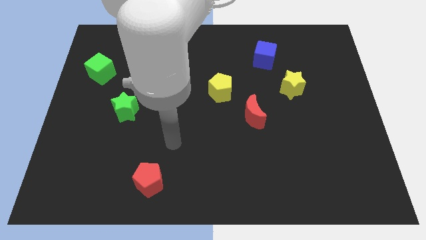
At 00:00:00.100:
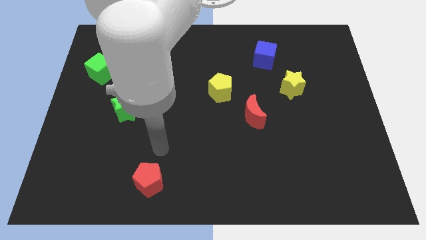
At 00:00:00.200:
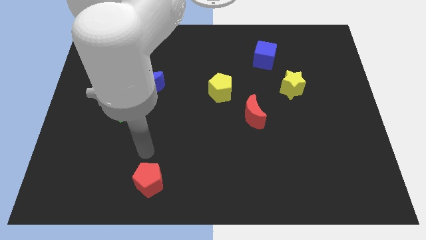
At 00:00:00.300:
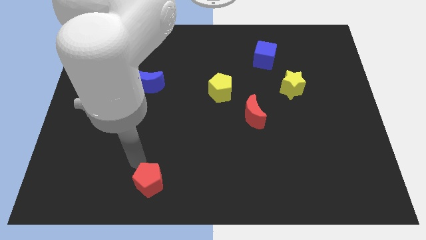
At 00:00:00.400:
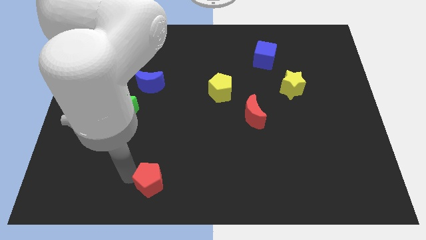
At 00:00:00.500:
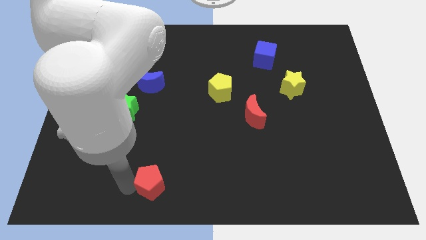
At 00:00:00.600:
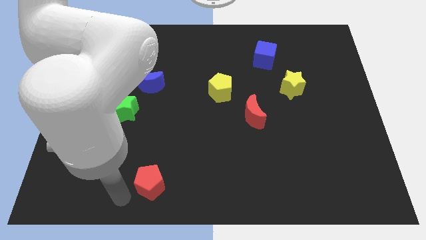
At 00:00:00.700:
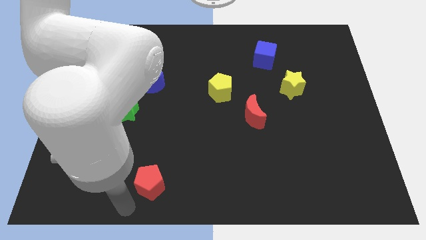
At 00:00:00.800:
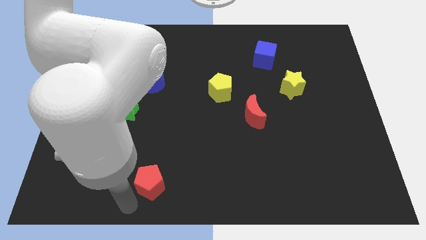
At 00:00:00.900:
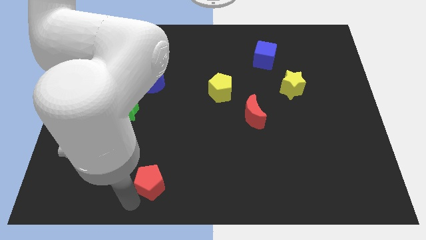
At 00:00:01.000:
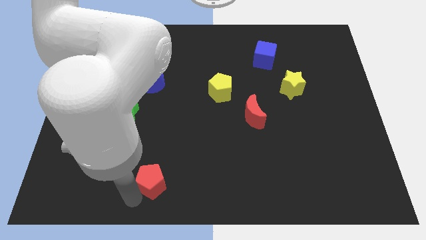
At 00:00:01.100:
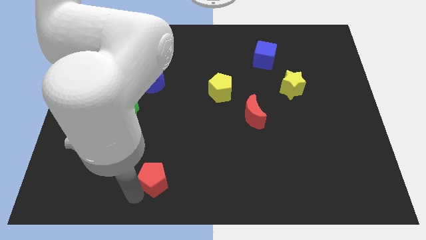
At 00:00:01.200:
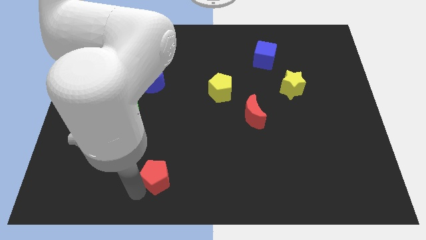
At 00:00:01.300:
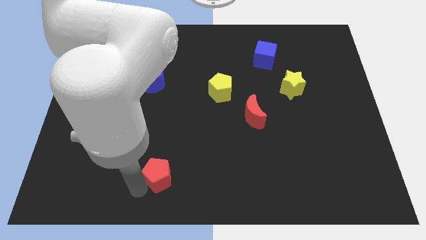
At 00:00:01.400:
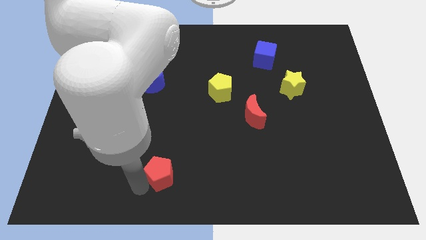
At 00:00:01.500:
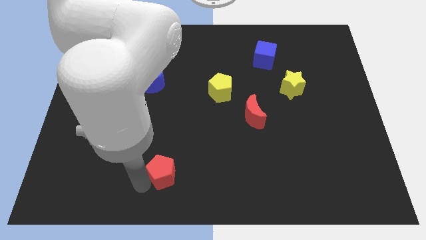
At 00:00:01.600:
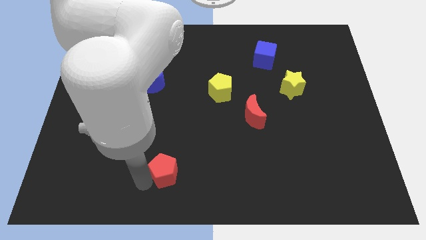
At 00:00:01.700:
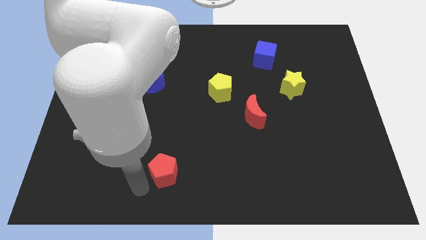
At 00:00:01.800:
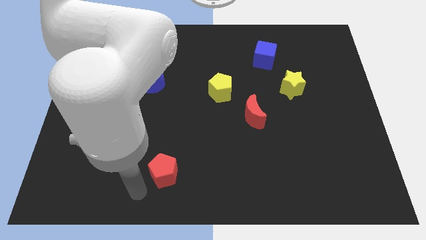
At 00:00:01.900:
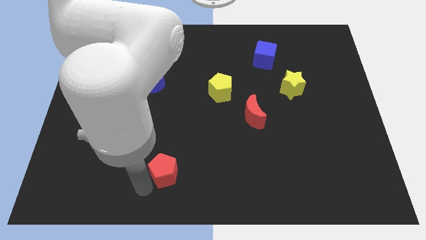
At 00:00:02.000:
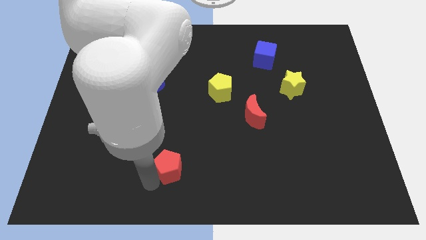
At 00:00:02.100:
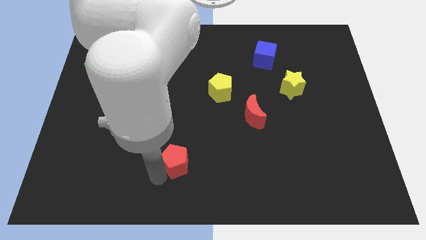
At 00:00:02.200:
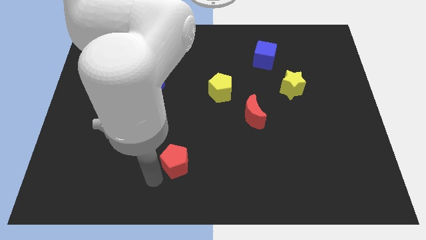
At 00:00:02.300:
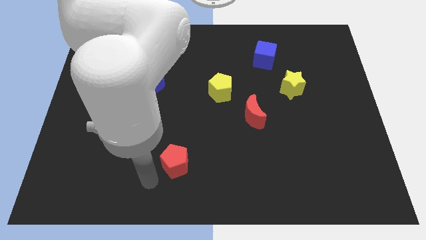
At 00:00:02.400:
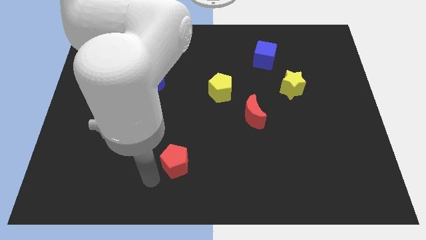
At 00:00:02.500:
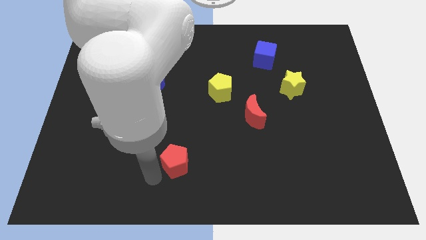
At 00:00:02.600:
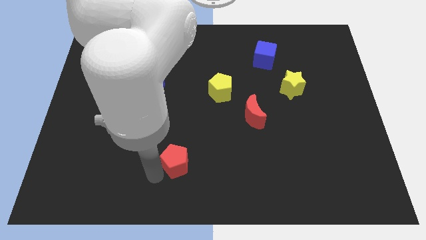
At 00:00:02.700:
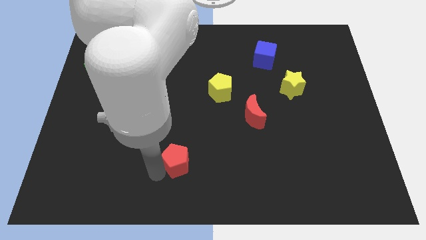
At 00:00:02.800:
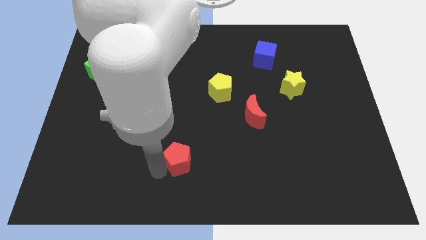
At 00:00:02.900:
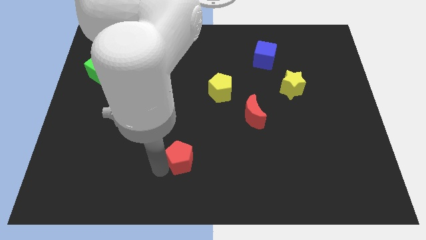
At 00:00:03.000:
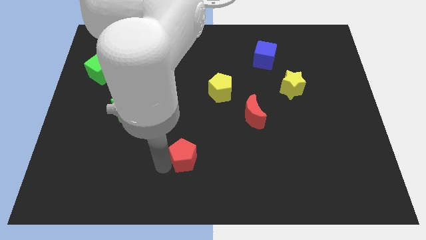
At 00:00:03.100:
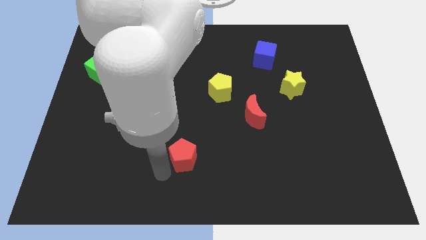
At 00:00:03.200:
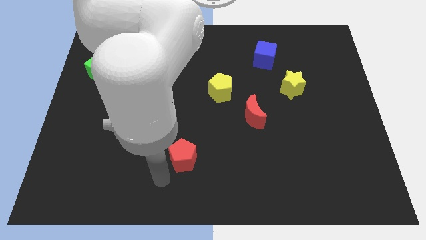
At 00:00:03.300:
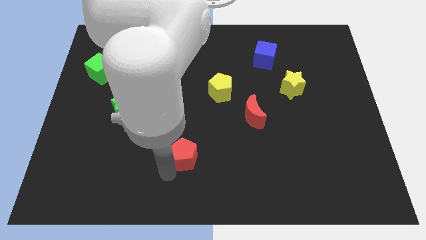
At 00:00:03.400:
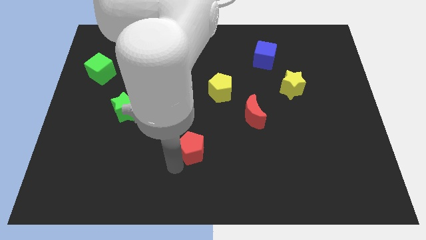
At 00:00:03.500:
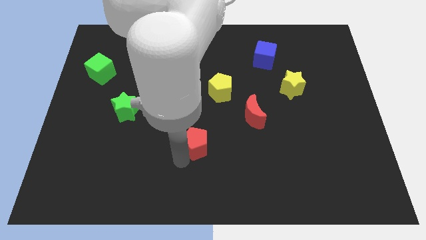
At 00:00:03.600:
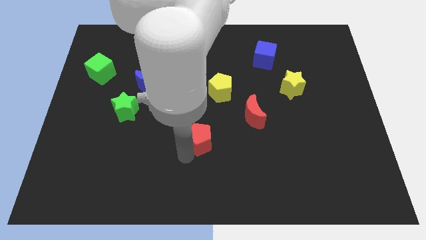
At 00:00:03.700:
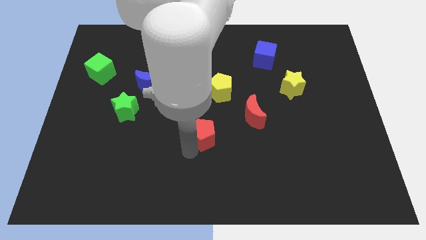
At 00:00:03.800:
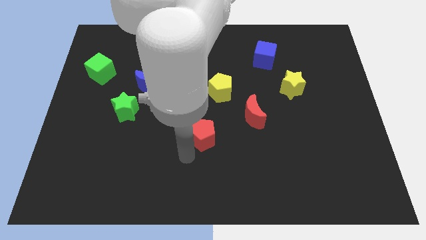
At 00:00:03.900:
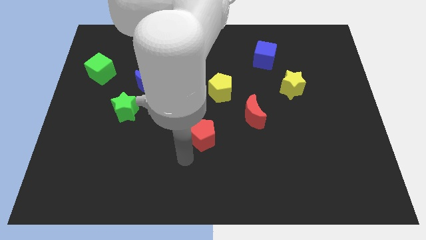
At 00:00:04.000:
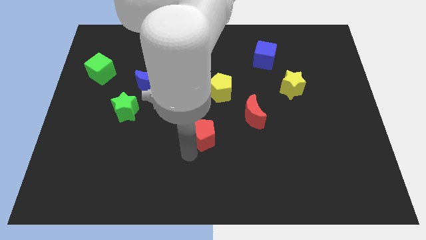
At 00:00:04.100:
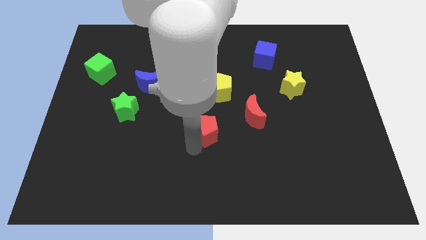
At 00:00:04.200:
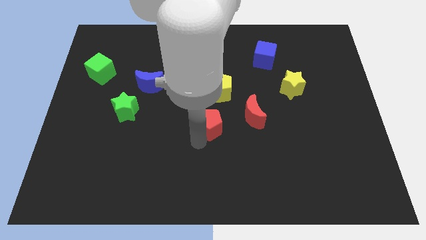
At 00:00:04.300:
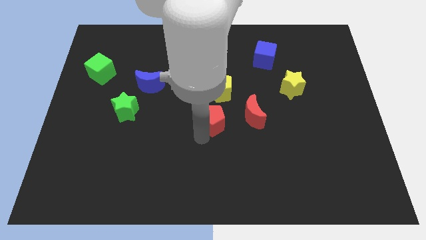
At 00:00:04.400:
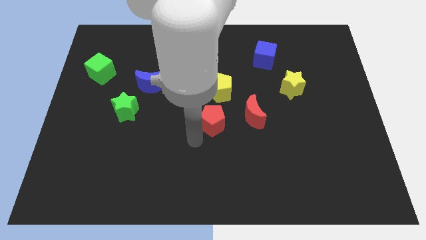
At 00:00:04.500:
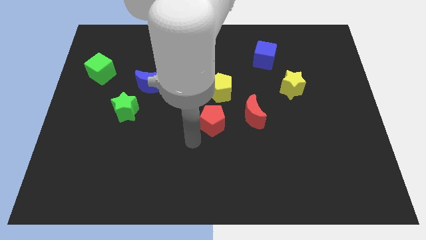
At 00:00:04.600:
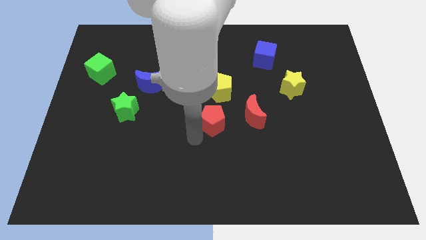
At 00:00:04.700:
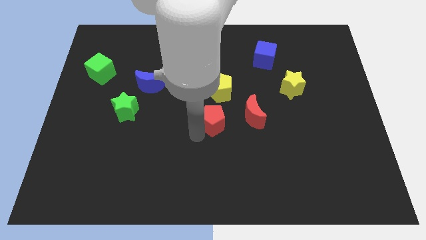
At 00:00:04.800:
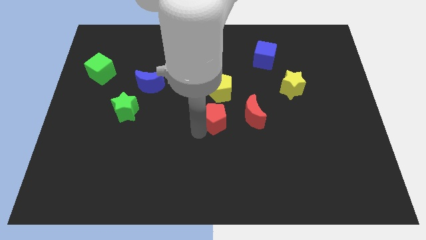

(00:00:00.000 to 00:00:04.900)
slide the red pentagon upwards and to the right

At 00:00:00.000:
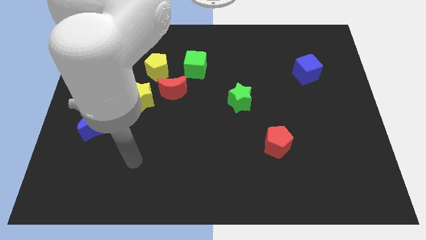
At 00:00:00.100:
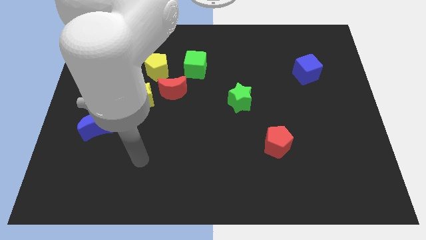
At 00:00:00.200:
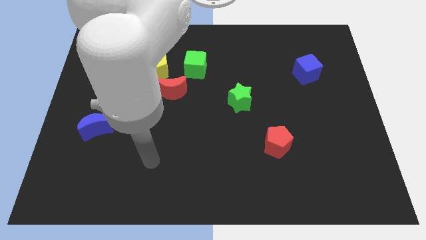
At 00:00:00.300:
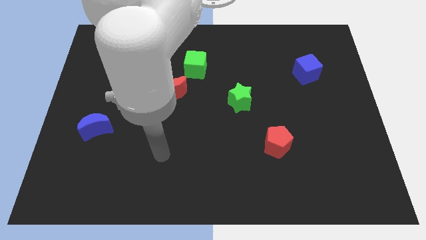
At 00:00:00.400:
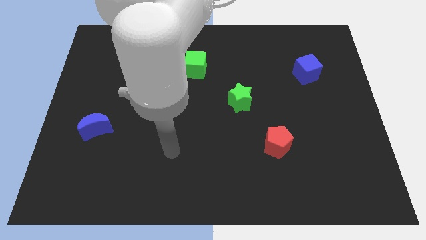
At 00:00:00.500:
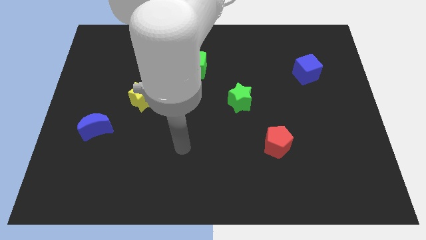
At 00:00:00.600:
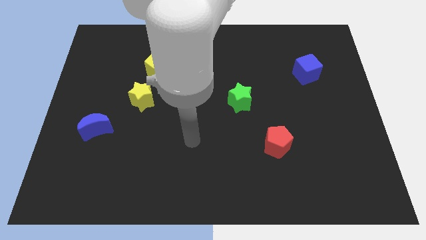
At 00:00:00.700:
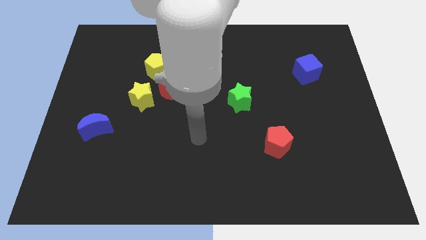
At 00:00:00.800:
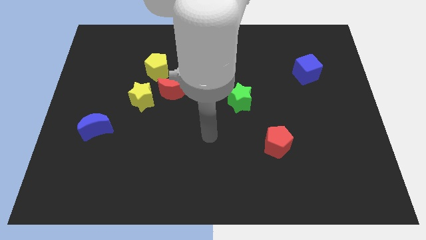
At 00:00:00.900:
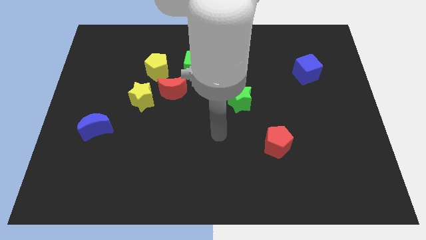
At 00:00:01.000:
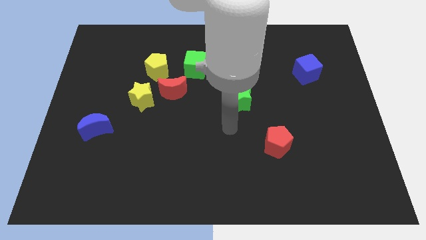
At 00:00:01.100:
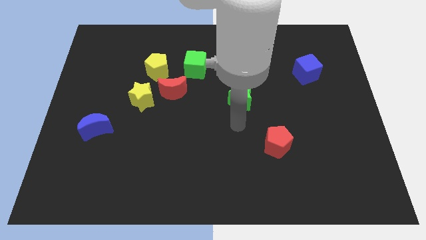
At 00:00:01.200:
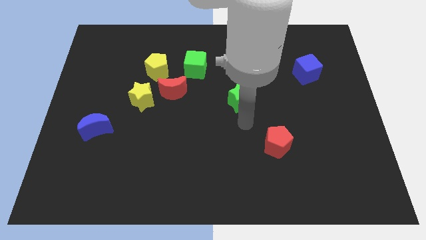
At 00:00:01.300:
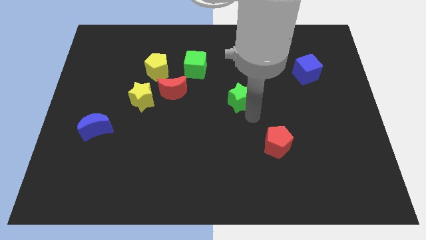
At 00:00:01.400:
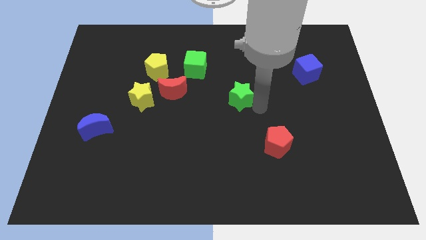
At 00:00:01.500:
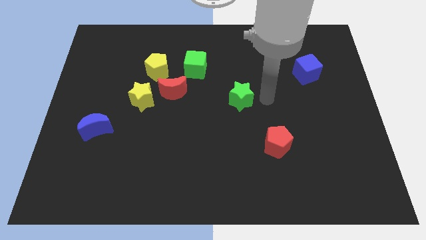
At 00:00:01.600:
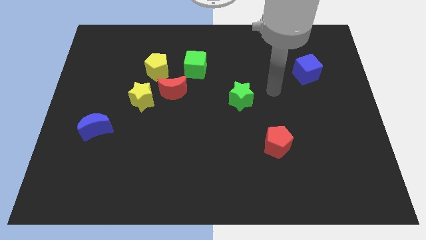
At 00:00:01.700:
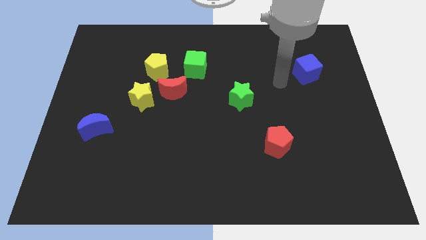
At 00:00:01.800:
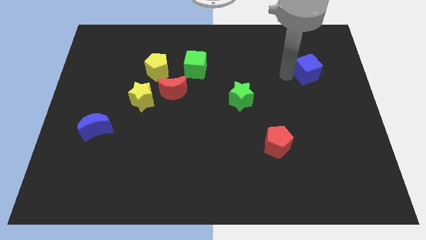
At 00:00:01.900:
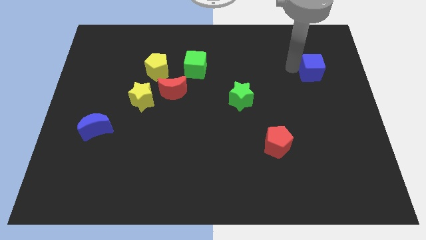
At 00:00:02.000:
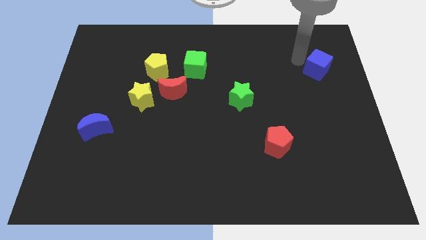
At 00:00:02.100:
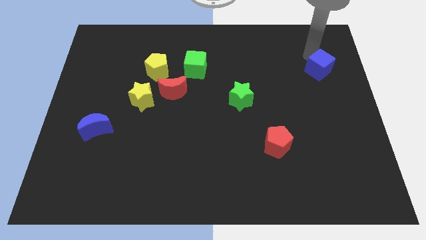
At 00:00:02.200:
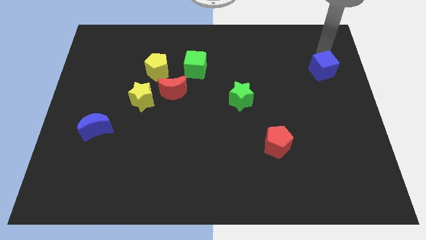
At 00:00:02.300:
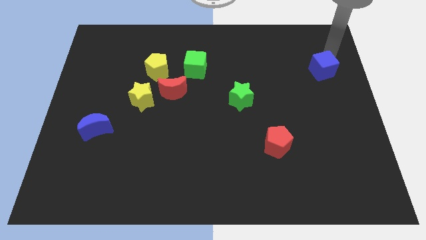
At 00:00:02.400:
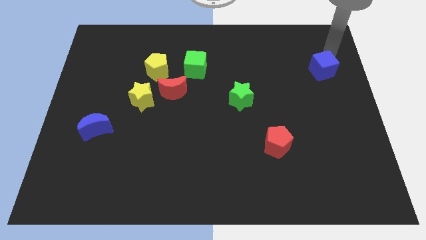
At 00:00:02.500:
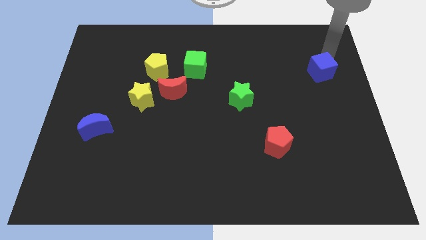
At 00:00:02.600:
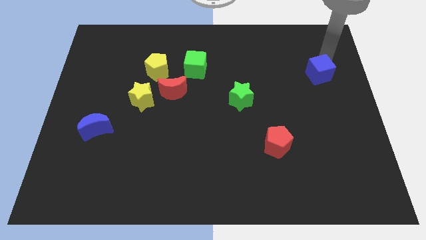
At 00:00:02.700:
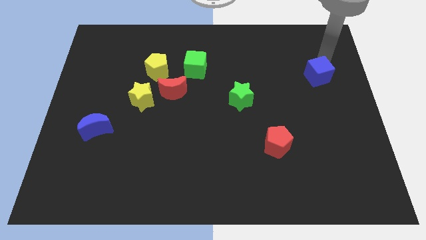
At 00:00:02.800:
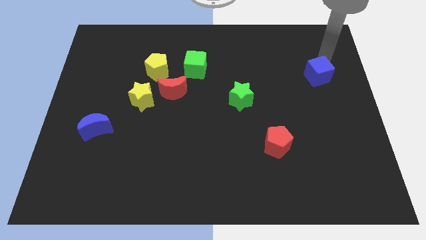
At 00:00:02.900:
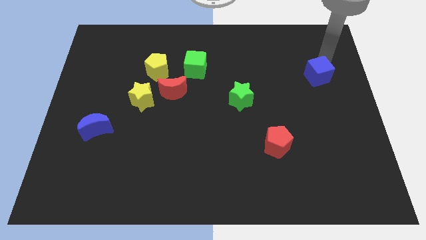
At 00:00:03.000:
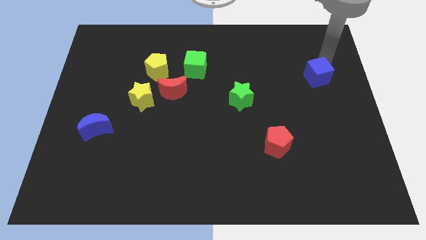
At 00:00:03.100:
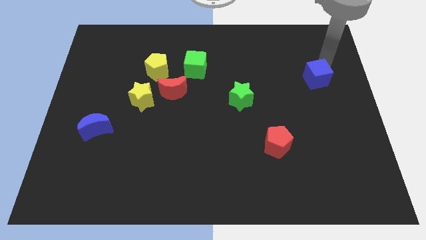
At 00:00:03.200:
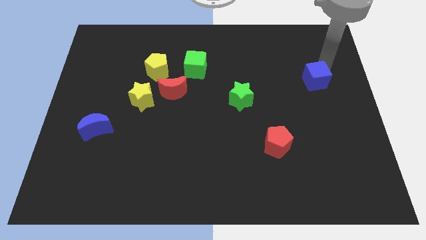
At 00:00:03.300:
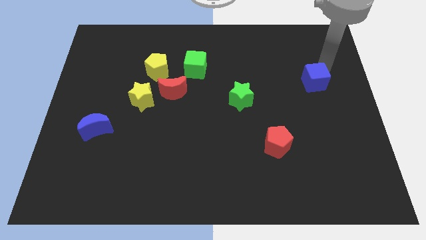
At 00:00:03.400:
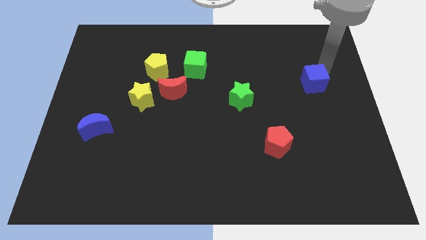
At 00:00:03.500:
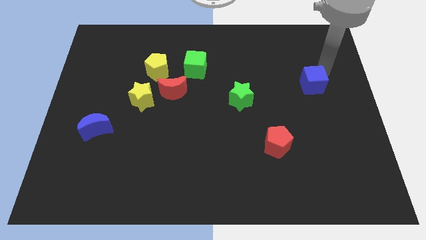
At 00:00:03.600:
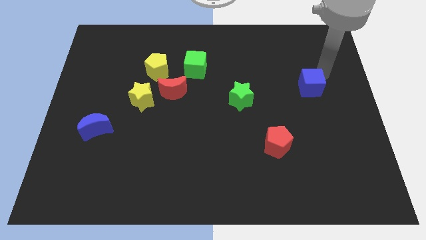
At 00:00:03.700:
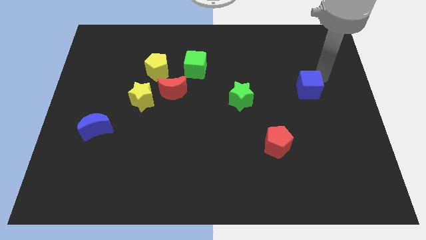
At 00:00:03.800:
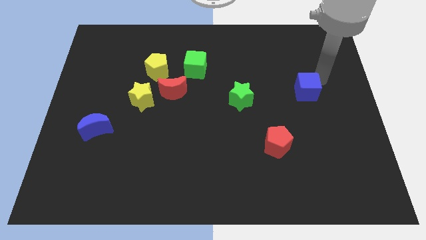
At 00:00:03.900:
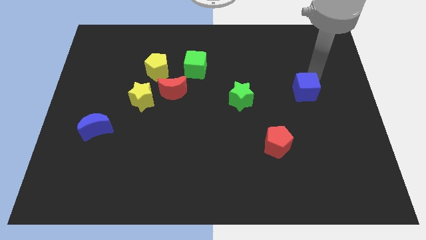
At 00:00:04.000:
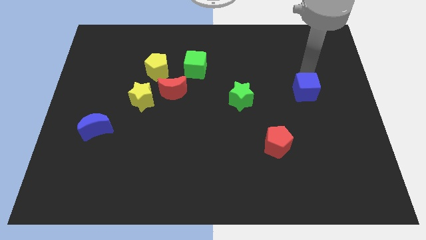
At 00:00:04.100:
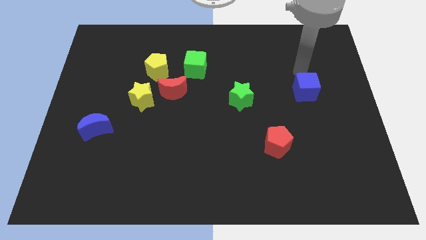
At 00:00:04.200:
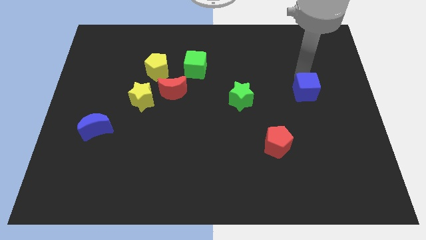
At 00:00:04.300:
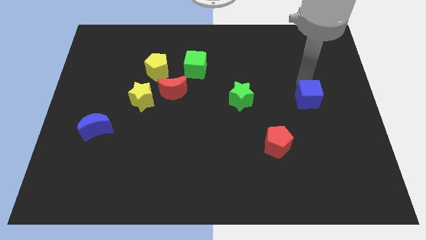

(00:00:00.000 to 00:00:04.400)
move the blue cube downwards somewhat
